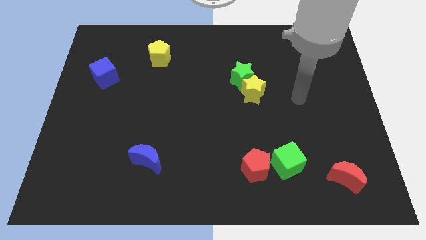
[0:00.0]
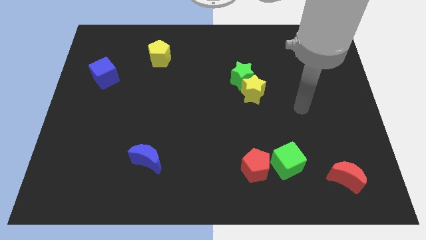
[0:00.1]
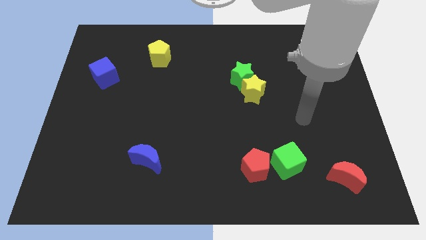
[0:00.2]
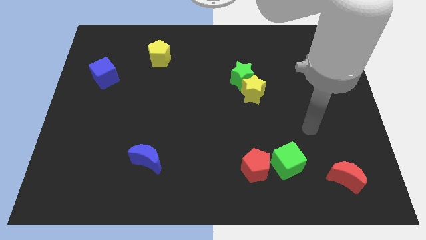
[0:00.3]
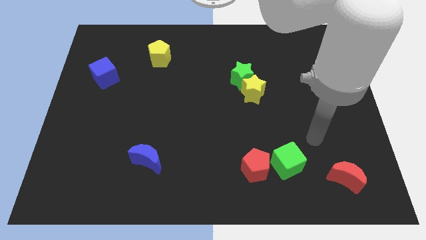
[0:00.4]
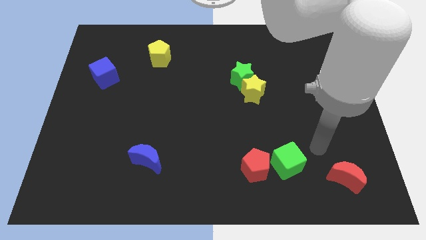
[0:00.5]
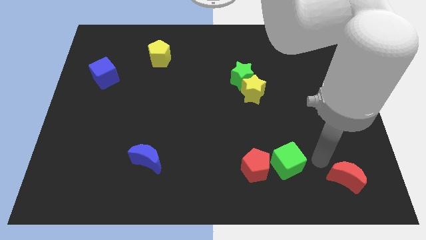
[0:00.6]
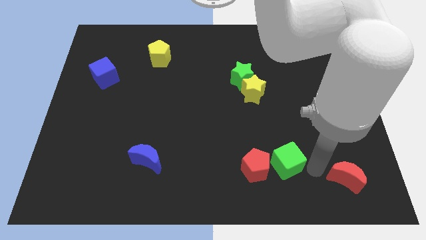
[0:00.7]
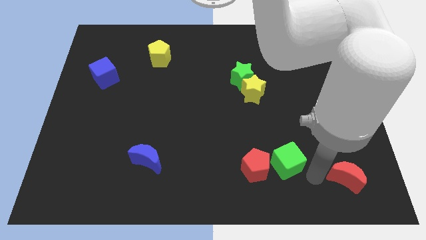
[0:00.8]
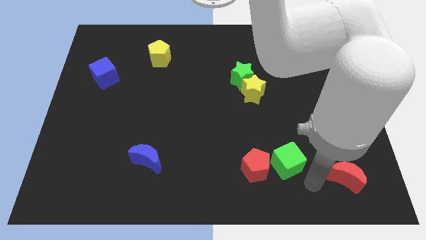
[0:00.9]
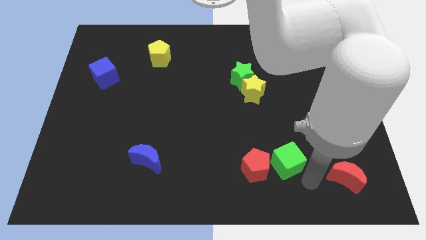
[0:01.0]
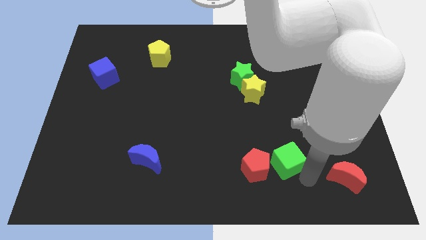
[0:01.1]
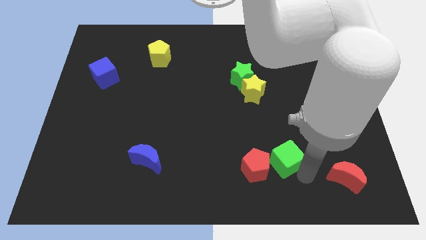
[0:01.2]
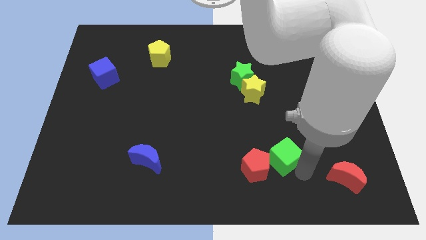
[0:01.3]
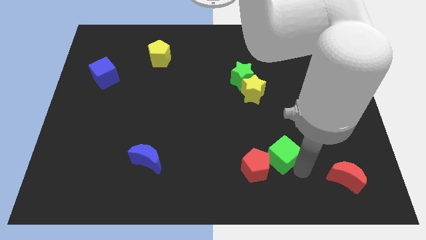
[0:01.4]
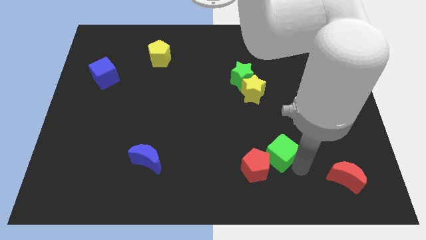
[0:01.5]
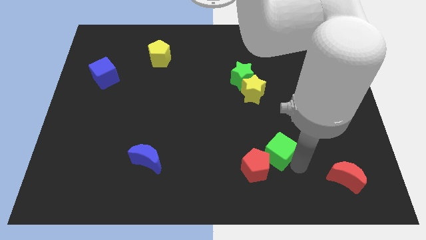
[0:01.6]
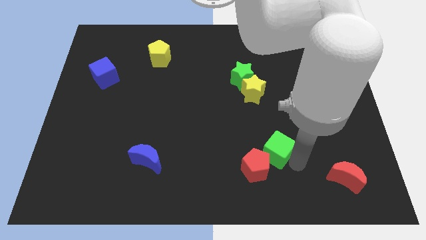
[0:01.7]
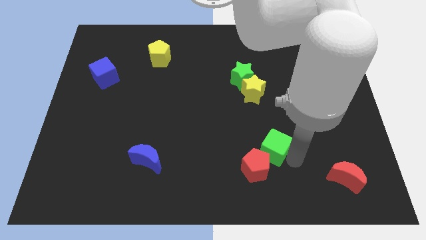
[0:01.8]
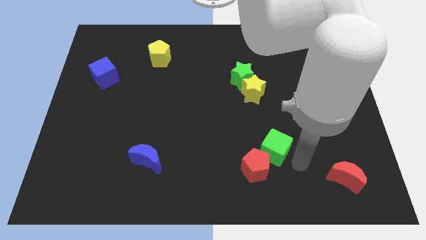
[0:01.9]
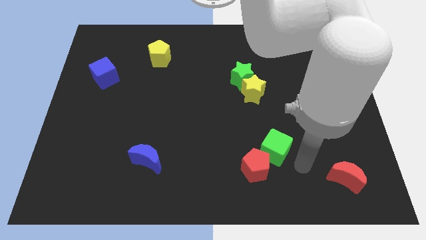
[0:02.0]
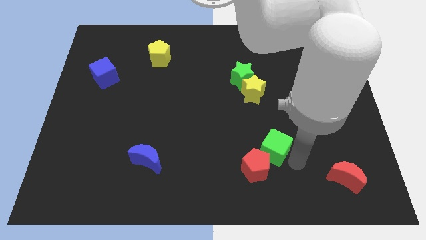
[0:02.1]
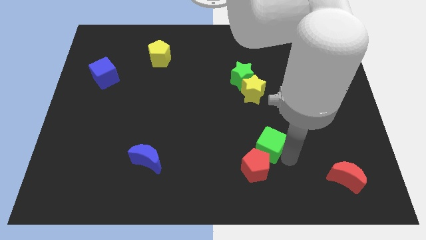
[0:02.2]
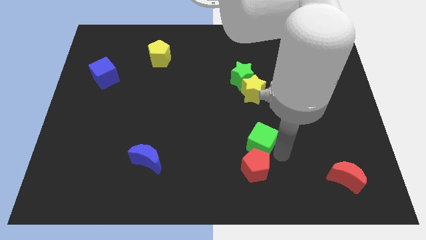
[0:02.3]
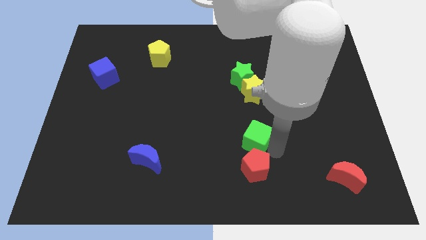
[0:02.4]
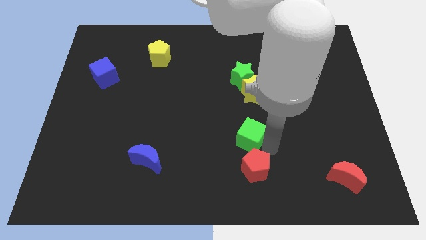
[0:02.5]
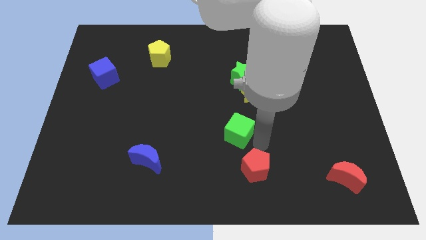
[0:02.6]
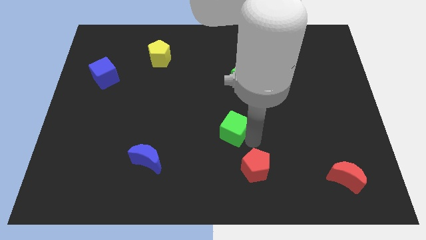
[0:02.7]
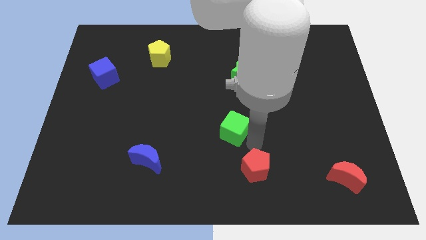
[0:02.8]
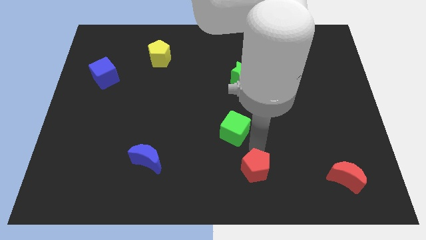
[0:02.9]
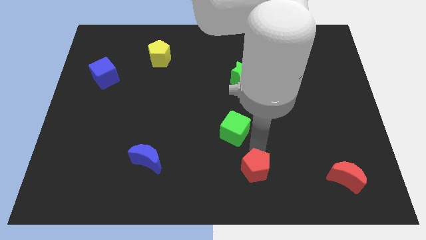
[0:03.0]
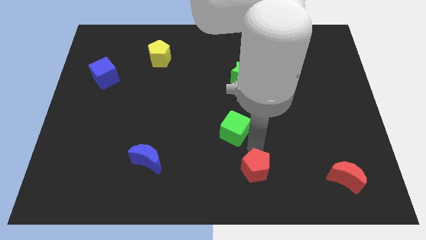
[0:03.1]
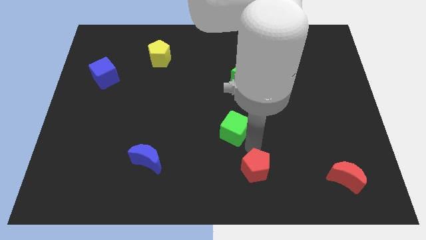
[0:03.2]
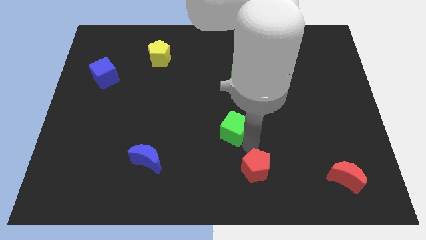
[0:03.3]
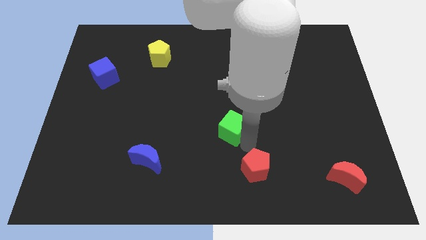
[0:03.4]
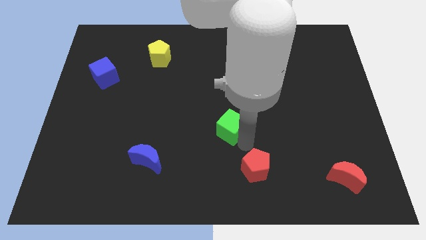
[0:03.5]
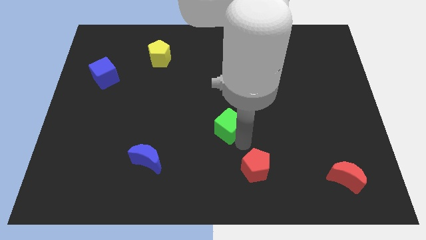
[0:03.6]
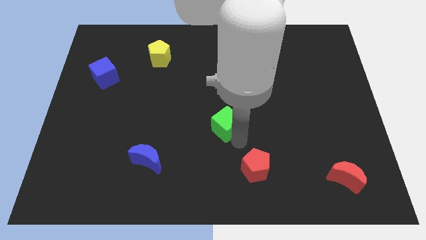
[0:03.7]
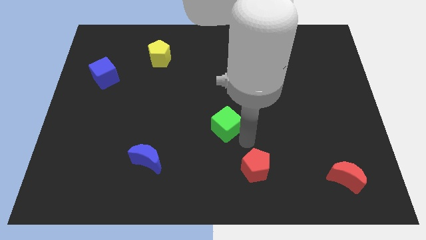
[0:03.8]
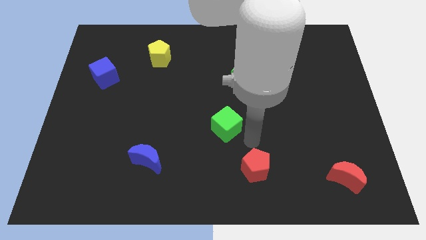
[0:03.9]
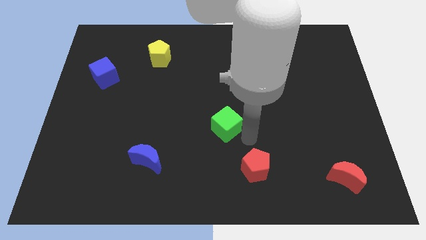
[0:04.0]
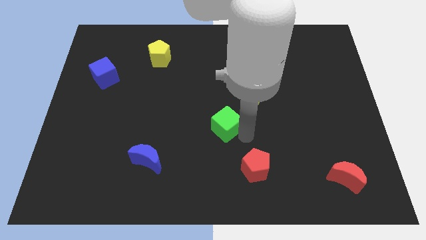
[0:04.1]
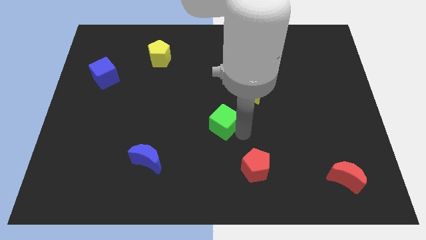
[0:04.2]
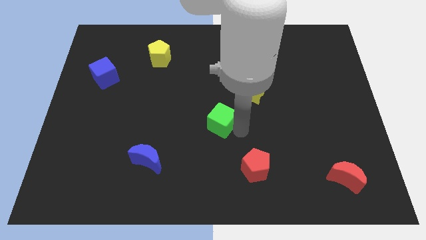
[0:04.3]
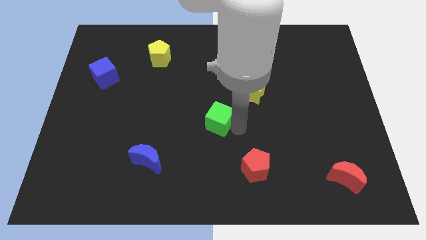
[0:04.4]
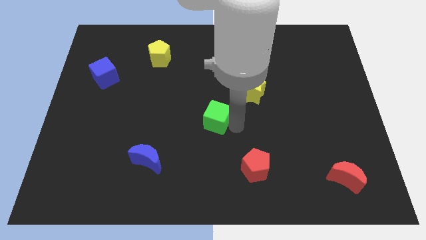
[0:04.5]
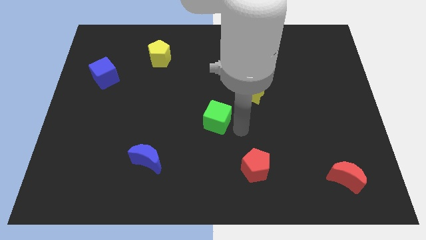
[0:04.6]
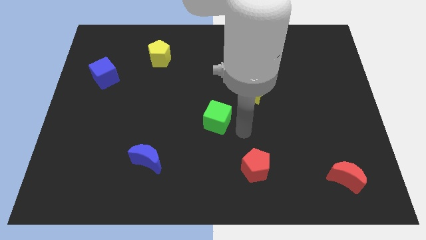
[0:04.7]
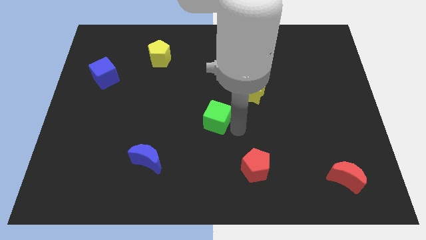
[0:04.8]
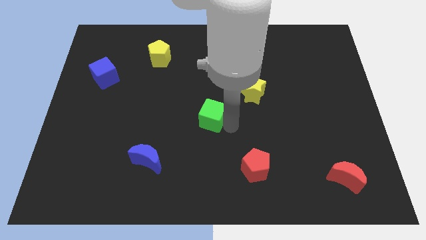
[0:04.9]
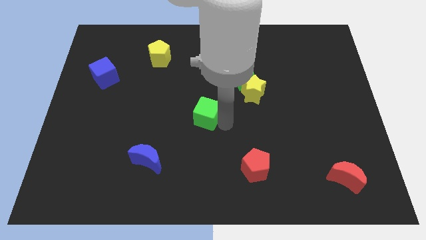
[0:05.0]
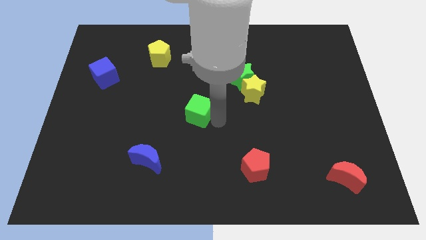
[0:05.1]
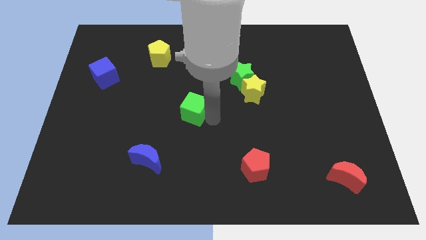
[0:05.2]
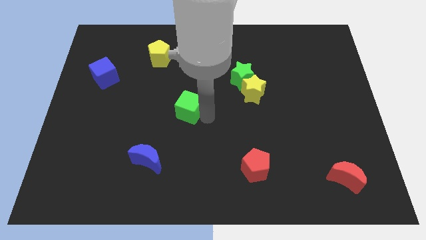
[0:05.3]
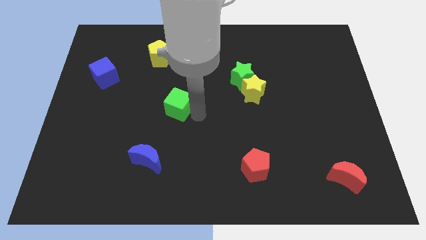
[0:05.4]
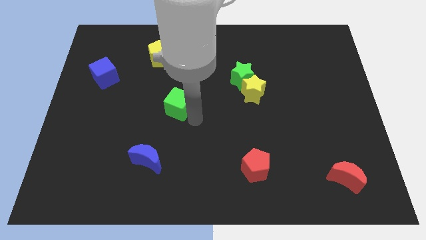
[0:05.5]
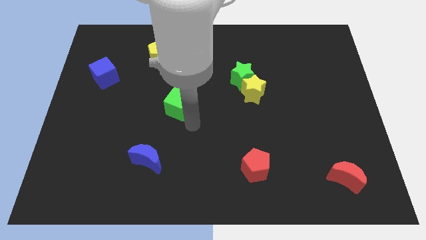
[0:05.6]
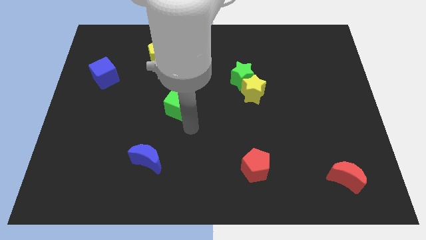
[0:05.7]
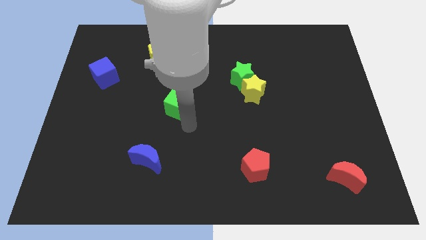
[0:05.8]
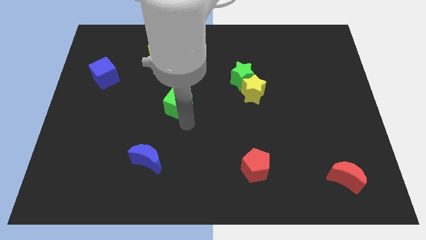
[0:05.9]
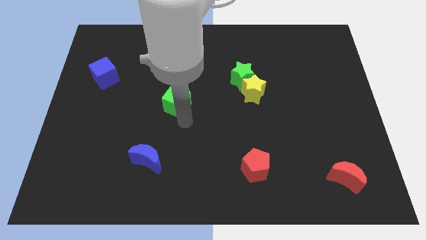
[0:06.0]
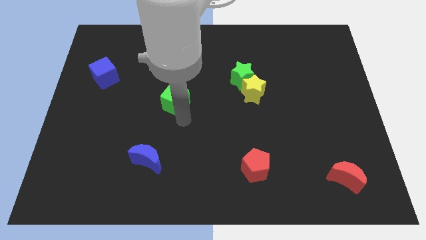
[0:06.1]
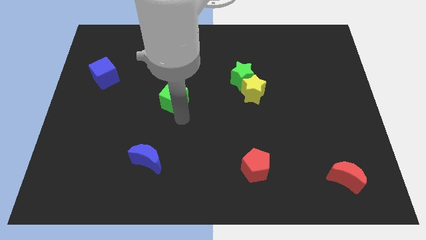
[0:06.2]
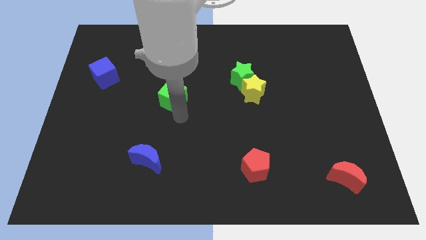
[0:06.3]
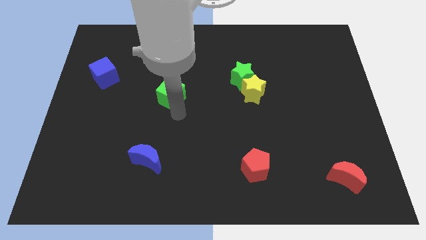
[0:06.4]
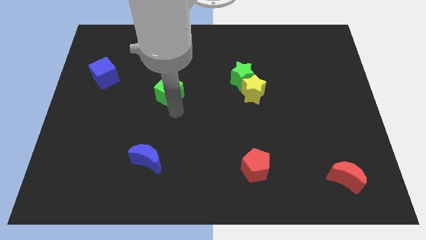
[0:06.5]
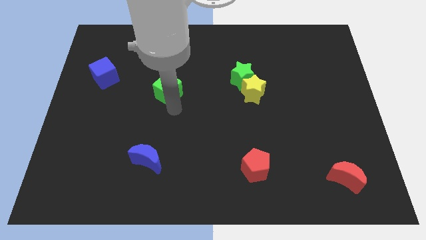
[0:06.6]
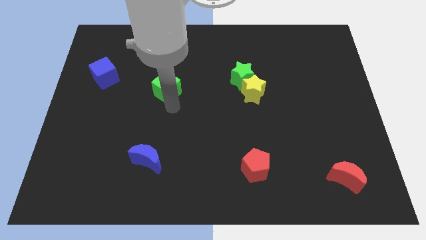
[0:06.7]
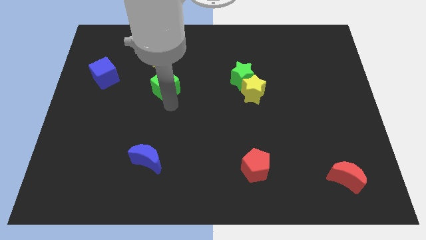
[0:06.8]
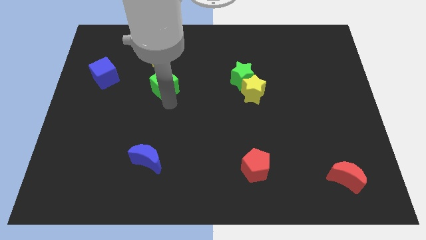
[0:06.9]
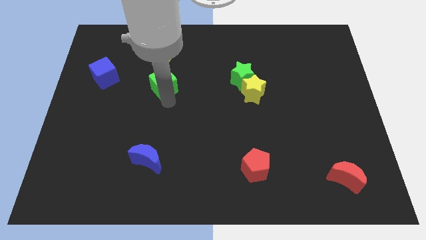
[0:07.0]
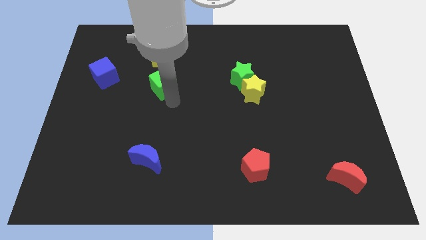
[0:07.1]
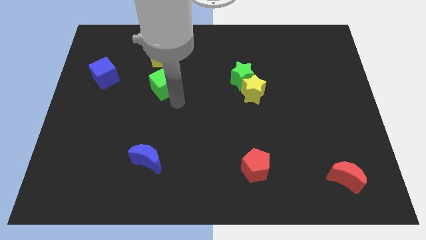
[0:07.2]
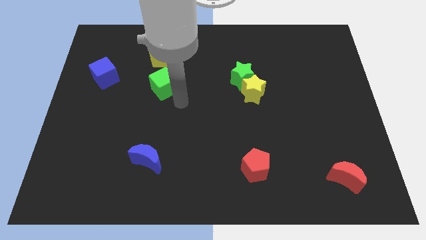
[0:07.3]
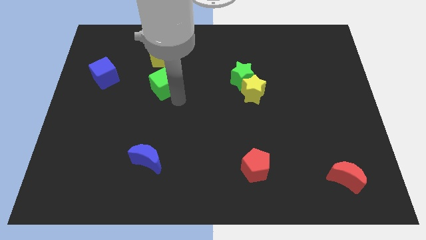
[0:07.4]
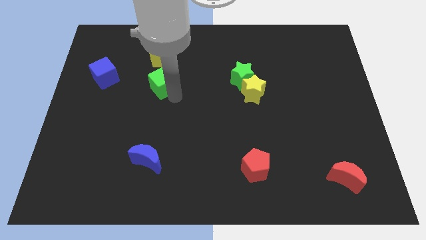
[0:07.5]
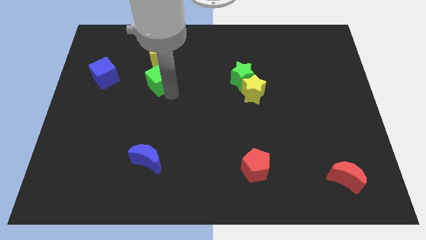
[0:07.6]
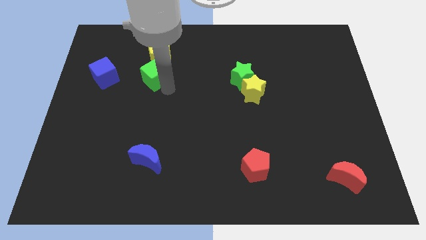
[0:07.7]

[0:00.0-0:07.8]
put the green cube to the bottom left of the yellow pentagon
